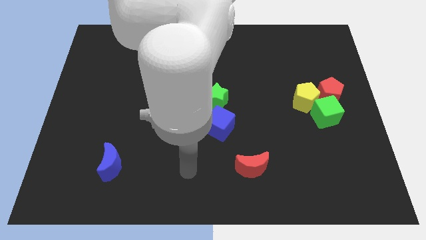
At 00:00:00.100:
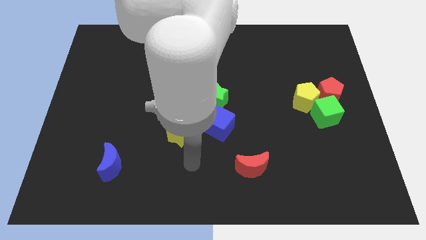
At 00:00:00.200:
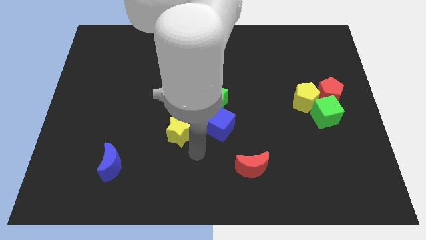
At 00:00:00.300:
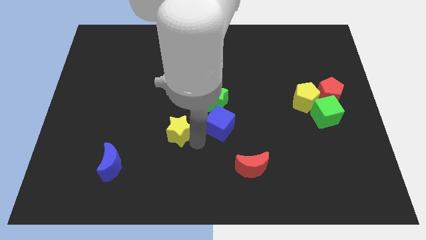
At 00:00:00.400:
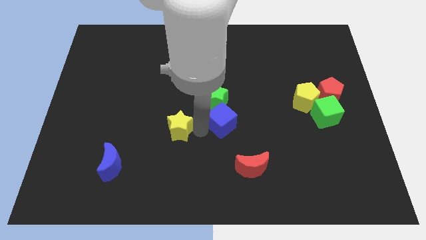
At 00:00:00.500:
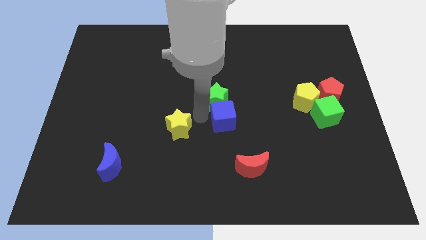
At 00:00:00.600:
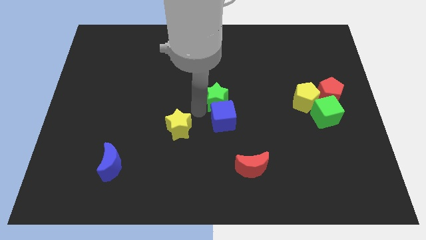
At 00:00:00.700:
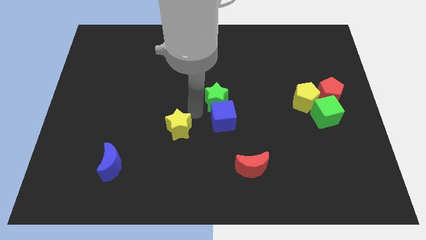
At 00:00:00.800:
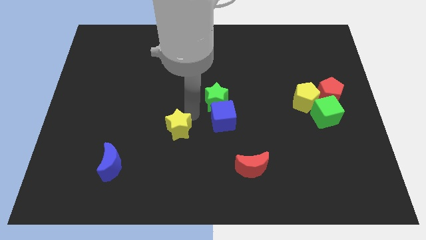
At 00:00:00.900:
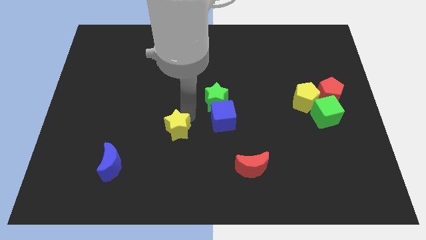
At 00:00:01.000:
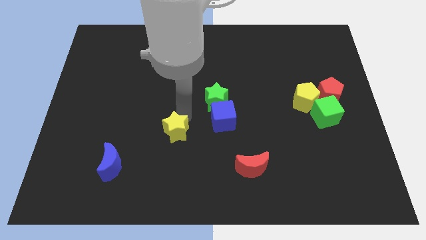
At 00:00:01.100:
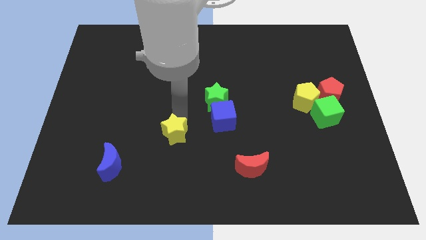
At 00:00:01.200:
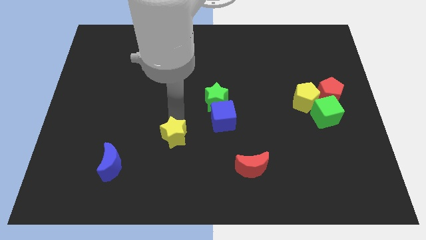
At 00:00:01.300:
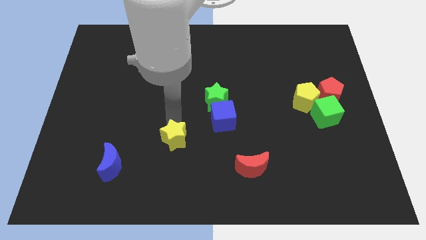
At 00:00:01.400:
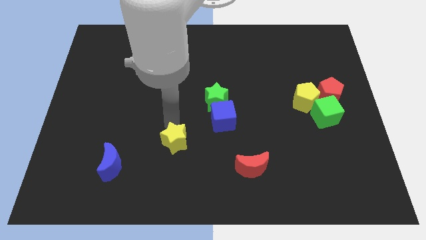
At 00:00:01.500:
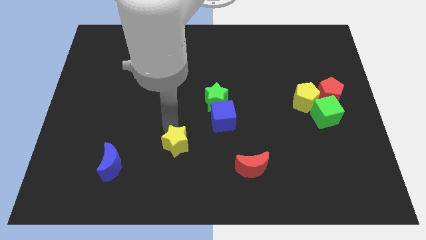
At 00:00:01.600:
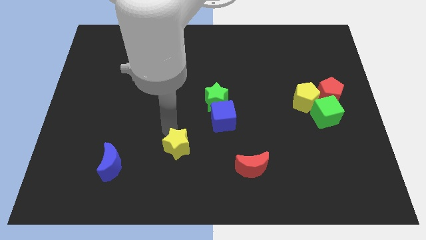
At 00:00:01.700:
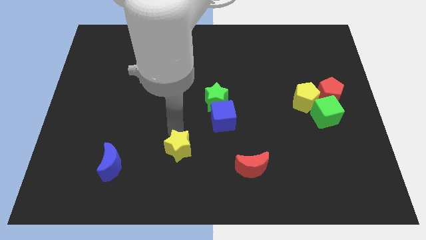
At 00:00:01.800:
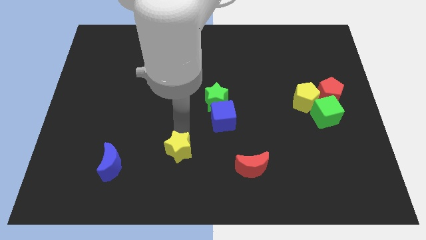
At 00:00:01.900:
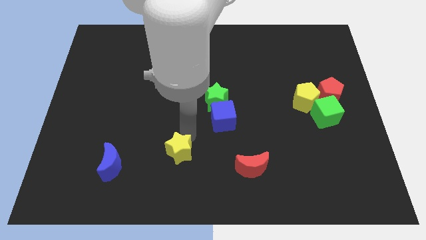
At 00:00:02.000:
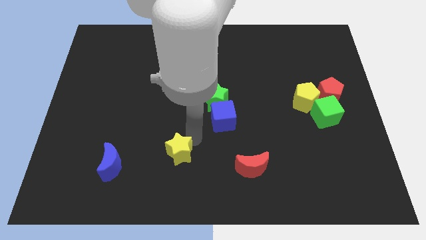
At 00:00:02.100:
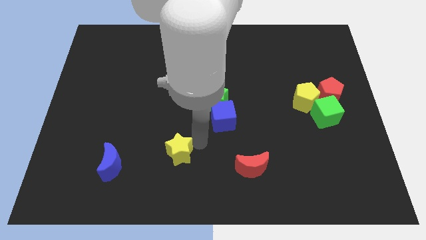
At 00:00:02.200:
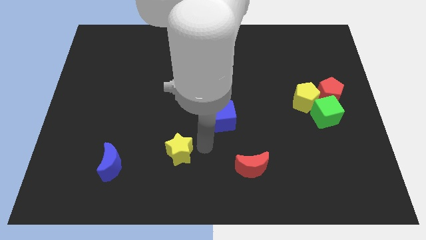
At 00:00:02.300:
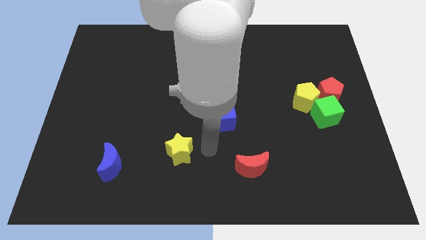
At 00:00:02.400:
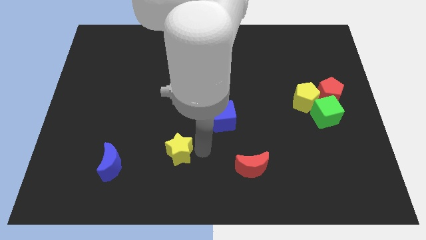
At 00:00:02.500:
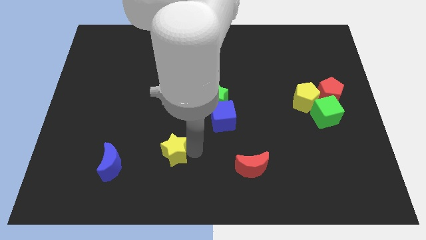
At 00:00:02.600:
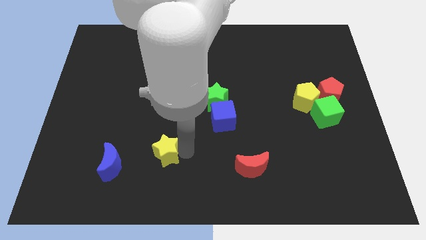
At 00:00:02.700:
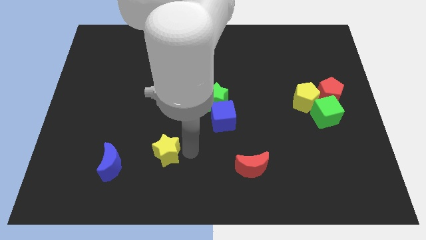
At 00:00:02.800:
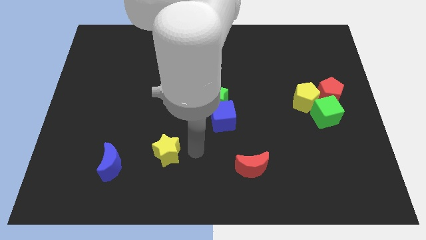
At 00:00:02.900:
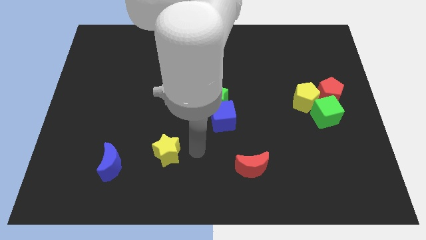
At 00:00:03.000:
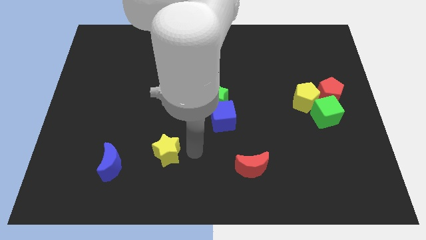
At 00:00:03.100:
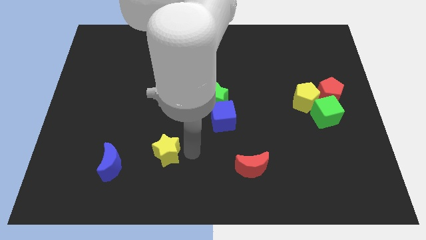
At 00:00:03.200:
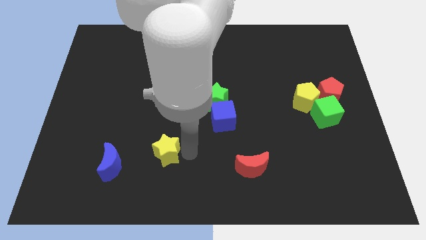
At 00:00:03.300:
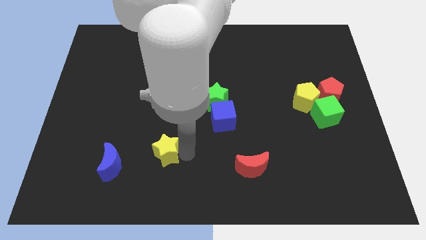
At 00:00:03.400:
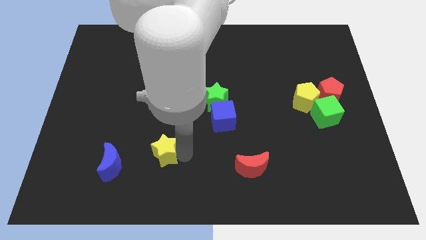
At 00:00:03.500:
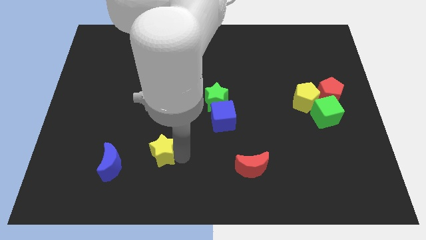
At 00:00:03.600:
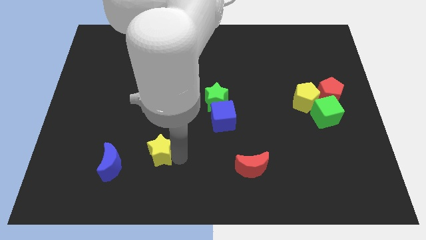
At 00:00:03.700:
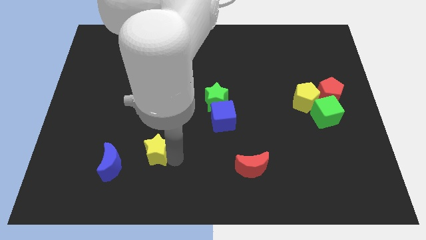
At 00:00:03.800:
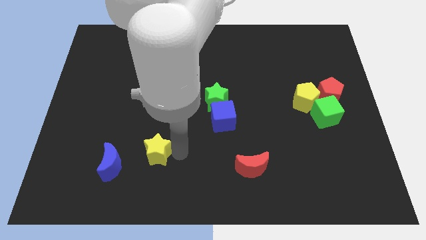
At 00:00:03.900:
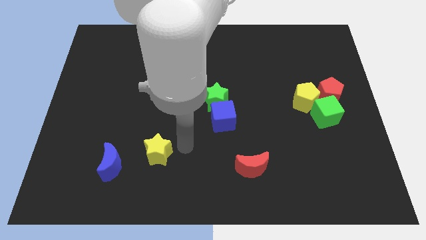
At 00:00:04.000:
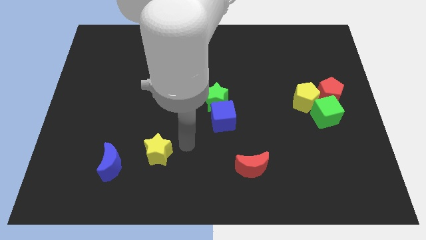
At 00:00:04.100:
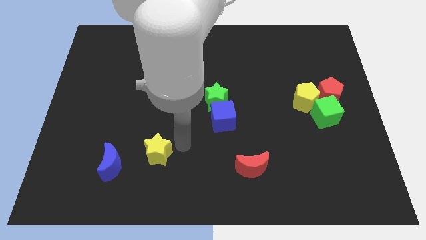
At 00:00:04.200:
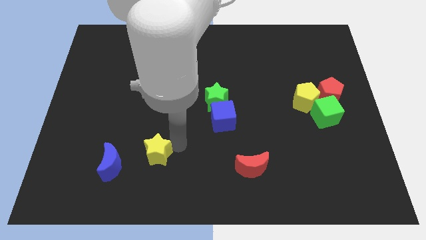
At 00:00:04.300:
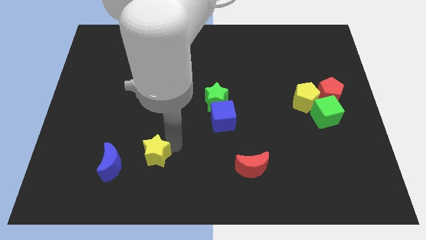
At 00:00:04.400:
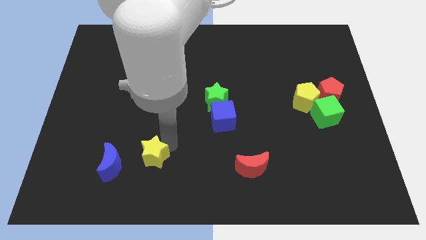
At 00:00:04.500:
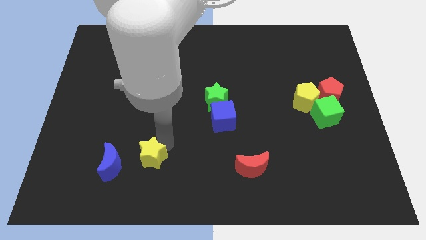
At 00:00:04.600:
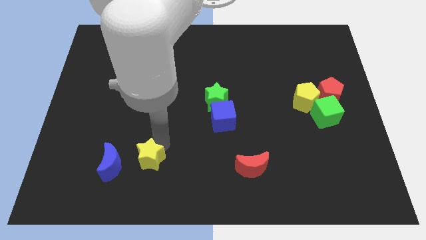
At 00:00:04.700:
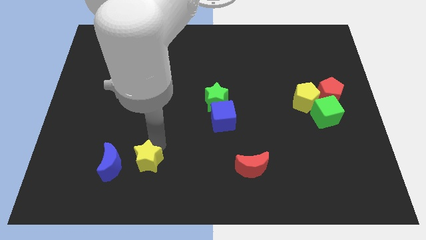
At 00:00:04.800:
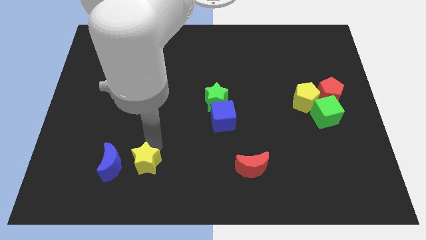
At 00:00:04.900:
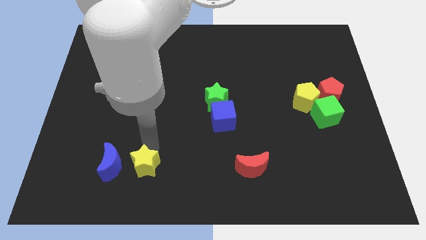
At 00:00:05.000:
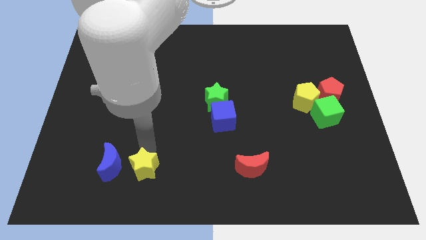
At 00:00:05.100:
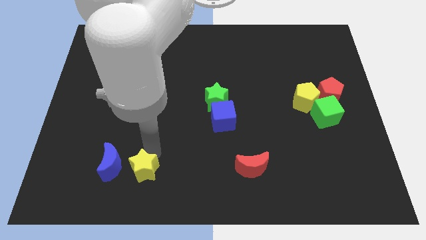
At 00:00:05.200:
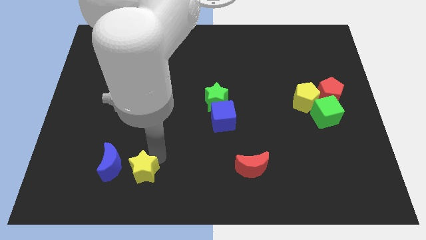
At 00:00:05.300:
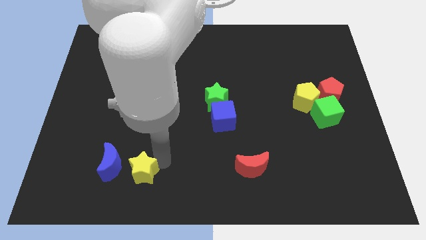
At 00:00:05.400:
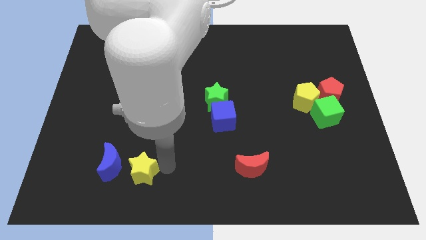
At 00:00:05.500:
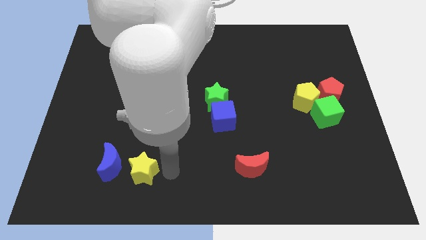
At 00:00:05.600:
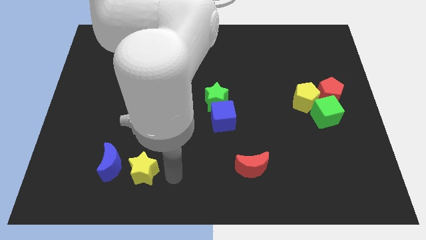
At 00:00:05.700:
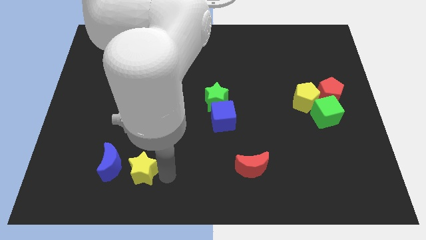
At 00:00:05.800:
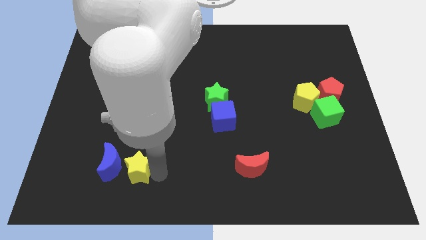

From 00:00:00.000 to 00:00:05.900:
push the yellow star to the blue moon
